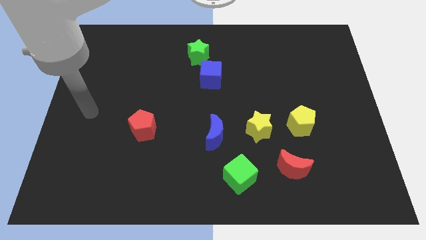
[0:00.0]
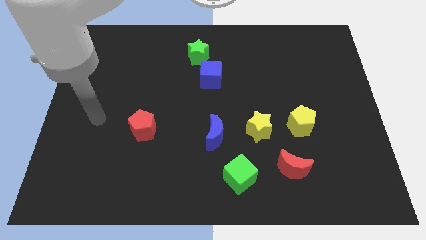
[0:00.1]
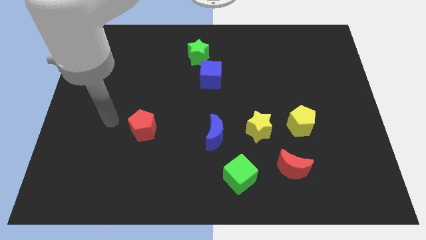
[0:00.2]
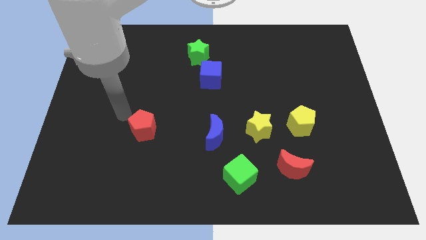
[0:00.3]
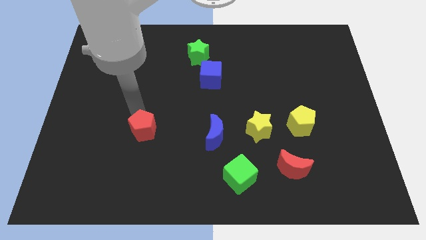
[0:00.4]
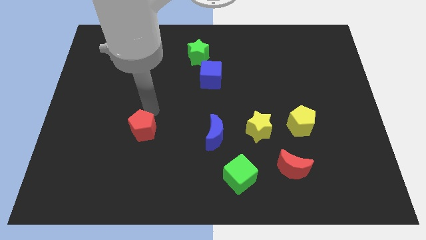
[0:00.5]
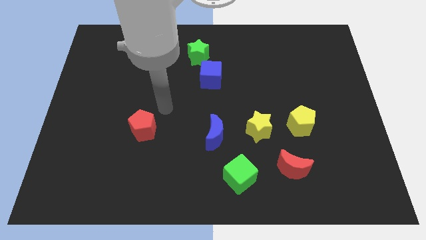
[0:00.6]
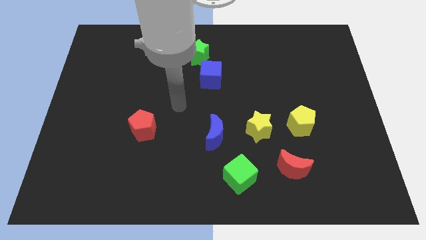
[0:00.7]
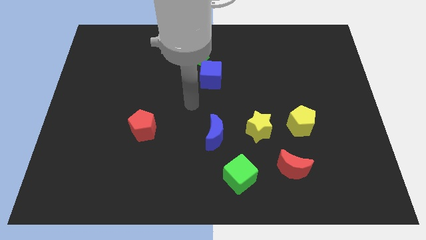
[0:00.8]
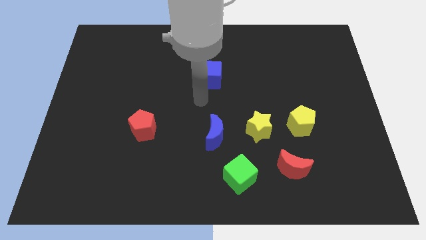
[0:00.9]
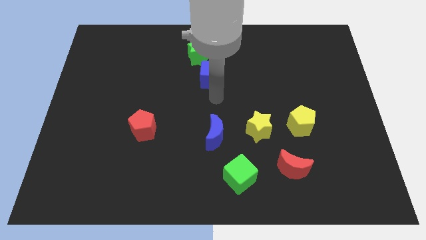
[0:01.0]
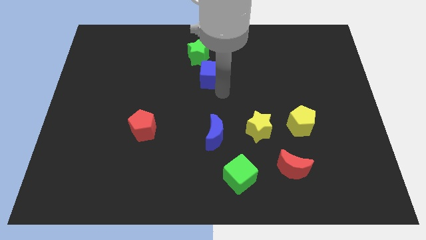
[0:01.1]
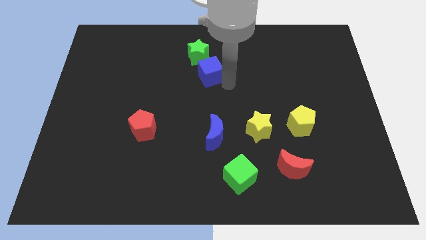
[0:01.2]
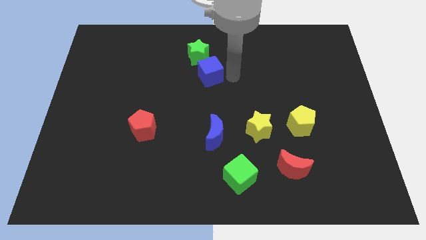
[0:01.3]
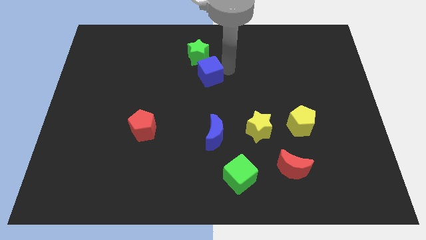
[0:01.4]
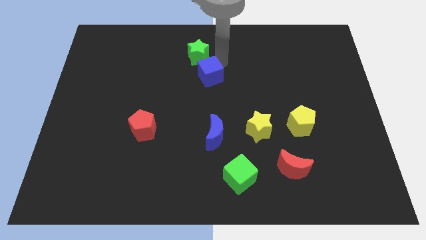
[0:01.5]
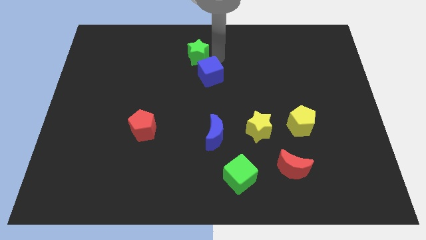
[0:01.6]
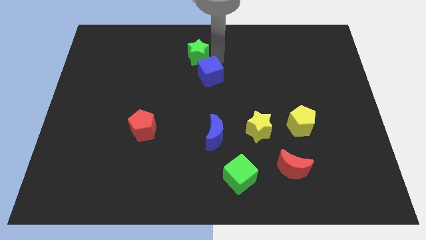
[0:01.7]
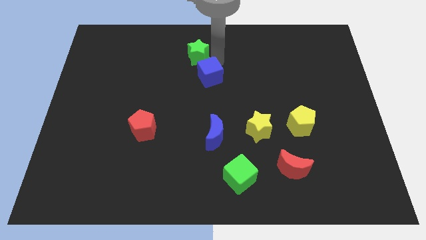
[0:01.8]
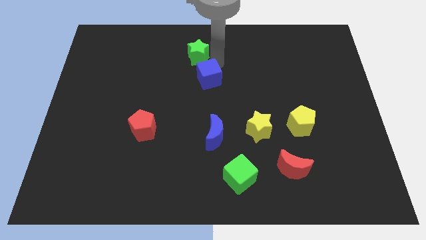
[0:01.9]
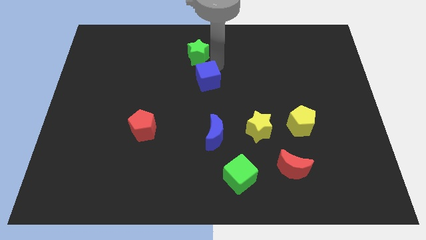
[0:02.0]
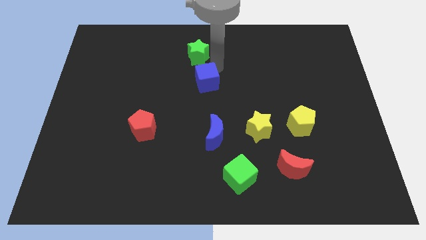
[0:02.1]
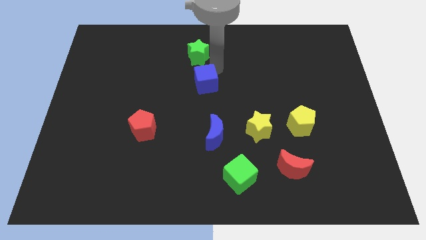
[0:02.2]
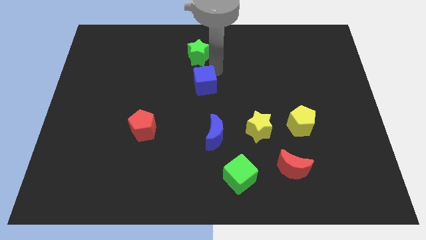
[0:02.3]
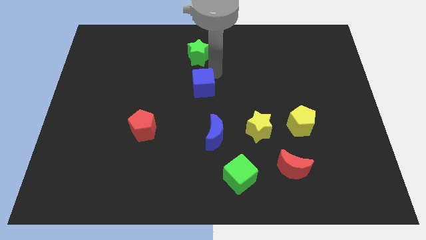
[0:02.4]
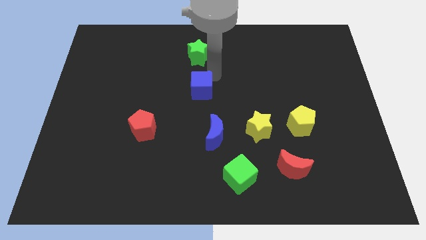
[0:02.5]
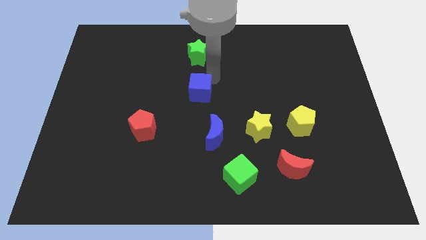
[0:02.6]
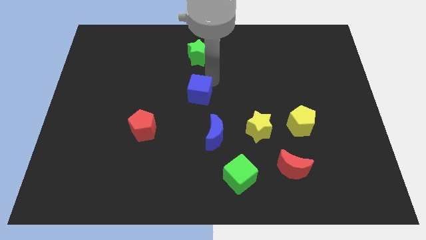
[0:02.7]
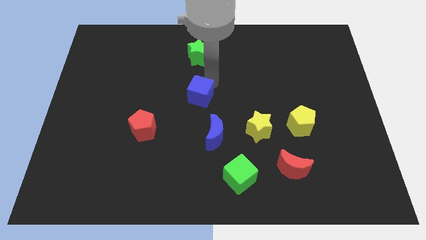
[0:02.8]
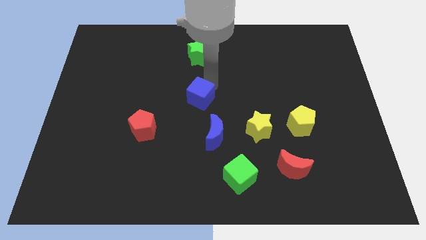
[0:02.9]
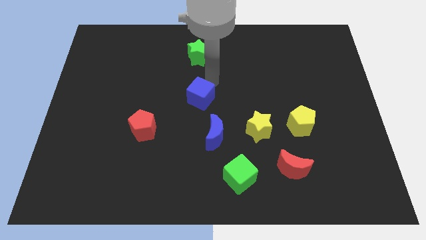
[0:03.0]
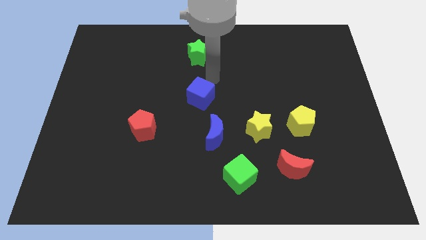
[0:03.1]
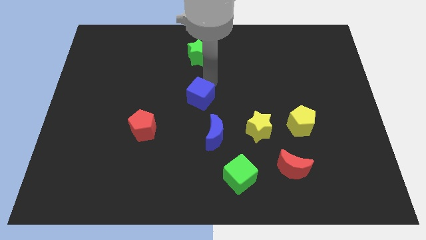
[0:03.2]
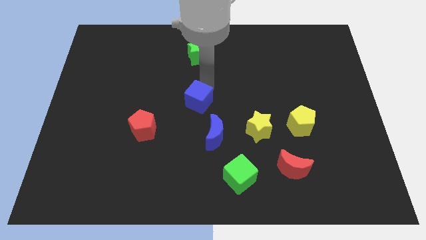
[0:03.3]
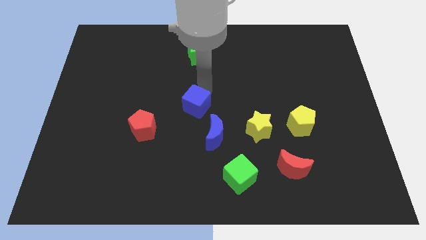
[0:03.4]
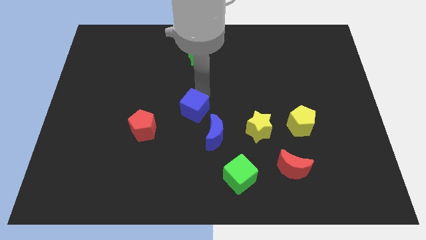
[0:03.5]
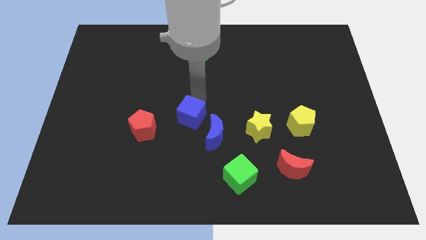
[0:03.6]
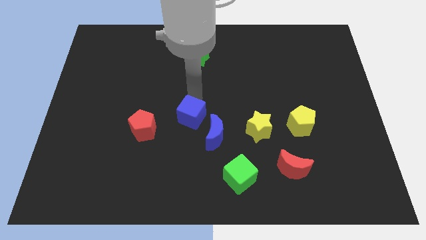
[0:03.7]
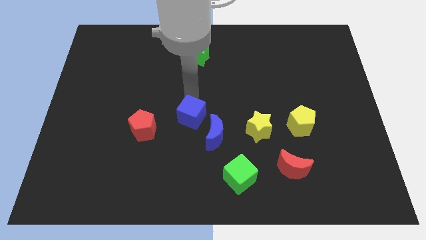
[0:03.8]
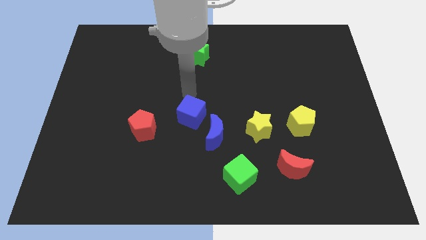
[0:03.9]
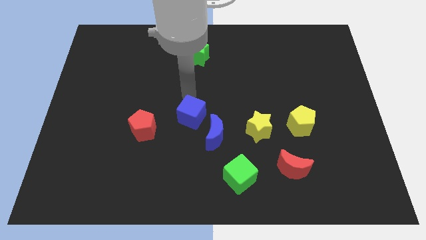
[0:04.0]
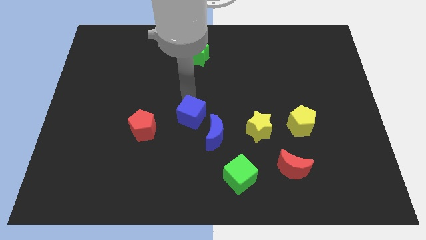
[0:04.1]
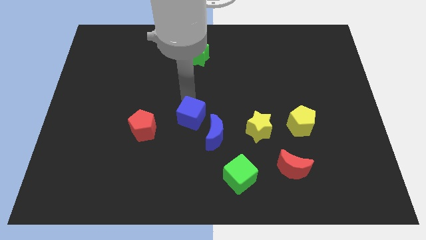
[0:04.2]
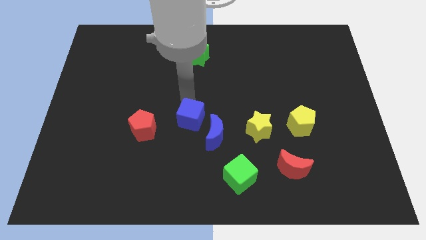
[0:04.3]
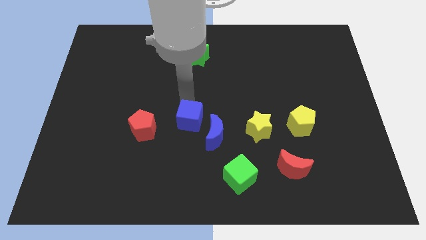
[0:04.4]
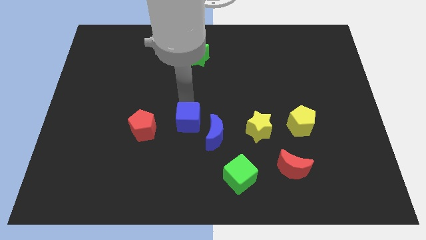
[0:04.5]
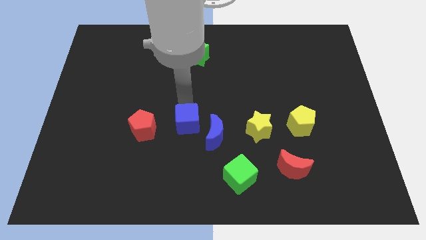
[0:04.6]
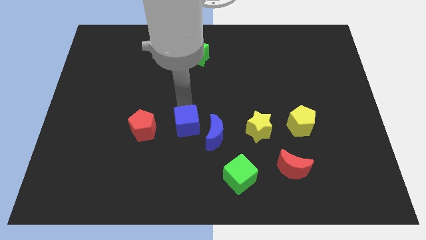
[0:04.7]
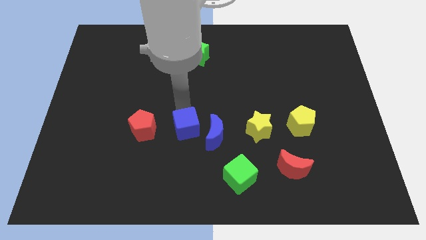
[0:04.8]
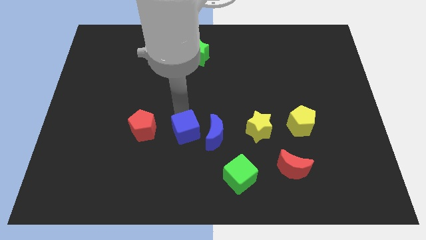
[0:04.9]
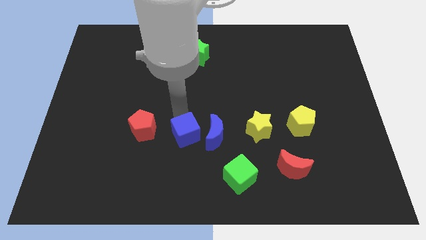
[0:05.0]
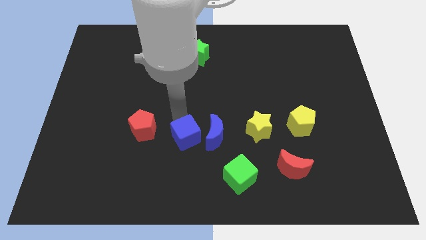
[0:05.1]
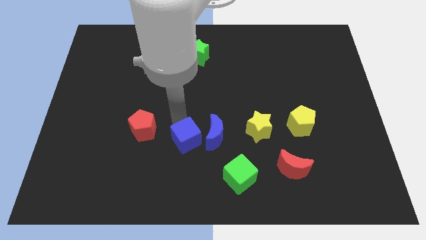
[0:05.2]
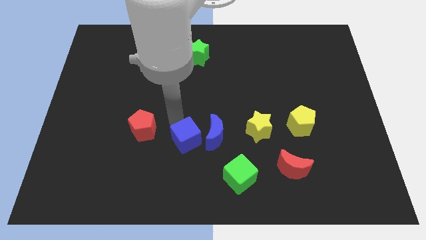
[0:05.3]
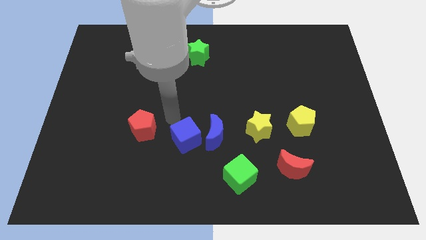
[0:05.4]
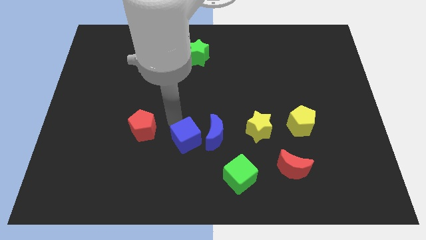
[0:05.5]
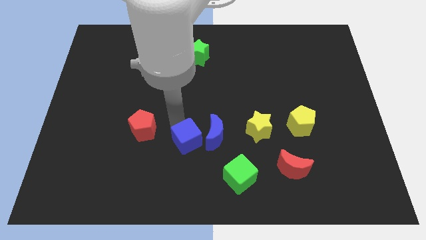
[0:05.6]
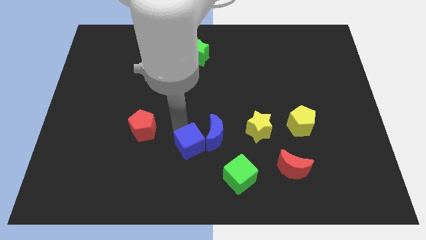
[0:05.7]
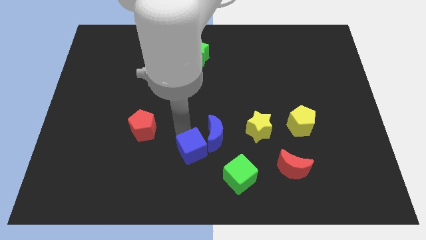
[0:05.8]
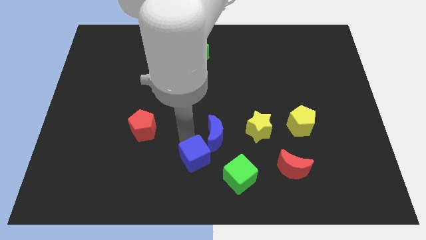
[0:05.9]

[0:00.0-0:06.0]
move the blue cube to the bottom

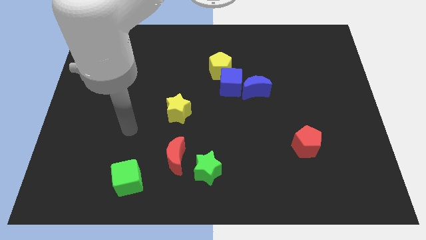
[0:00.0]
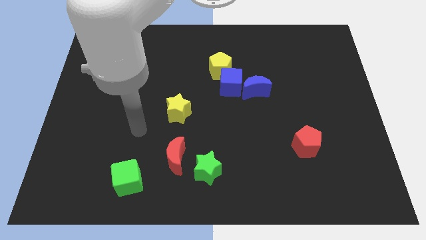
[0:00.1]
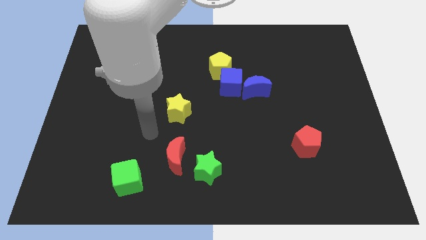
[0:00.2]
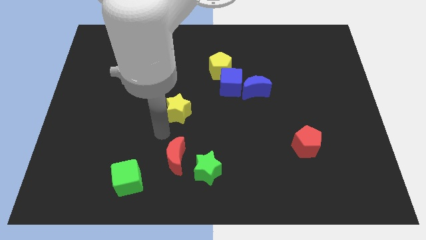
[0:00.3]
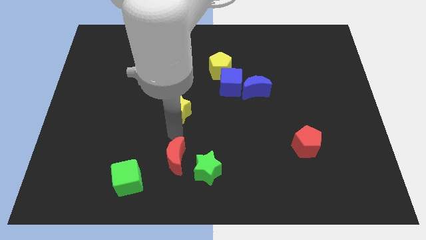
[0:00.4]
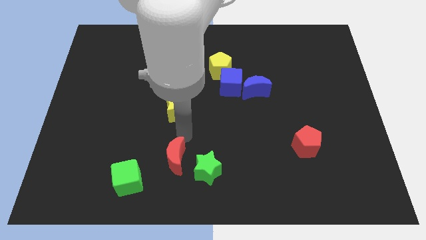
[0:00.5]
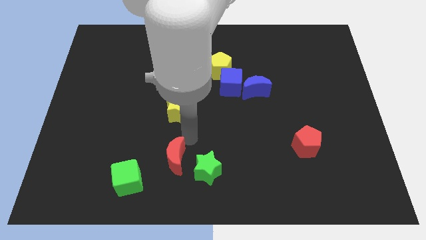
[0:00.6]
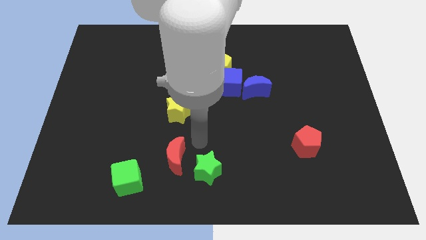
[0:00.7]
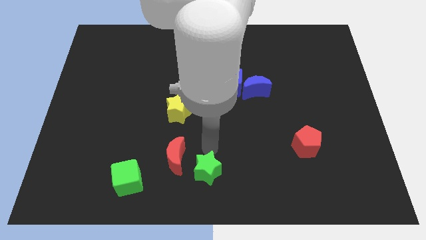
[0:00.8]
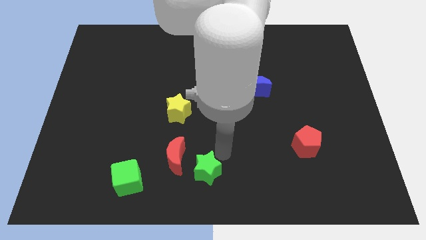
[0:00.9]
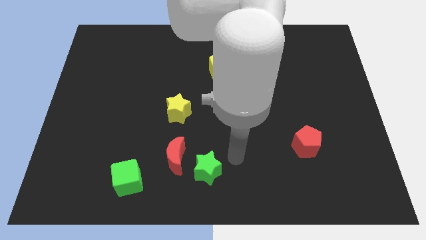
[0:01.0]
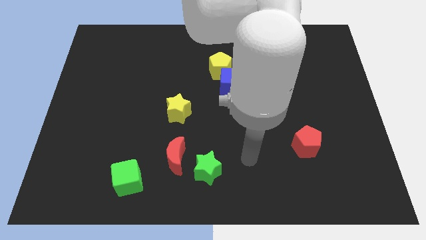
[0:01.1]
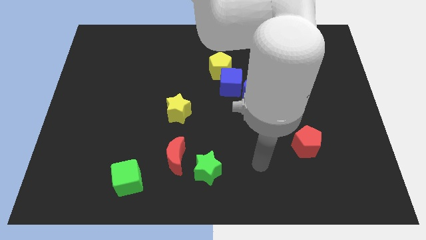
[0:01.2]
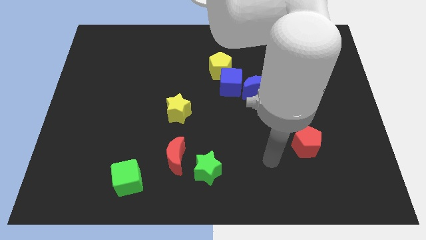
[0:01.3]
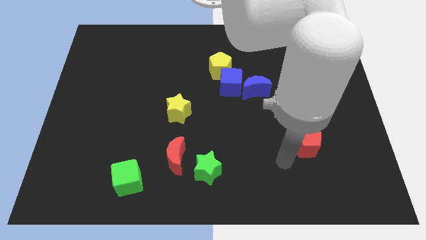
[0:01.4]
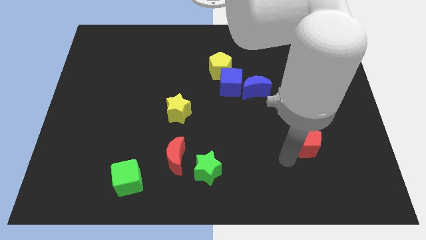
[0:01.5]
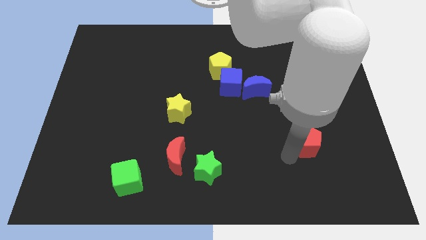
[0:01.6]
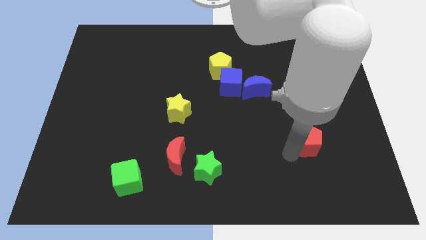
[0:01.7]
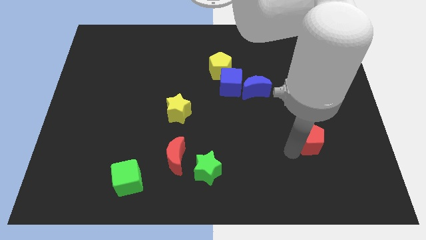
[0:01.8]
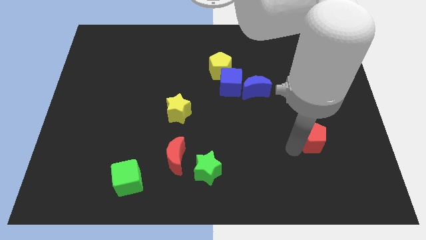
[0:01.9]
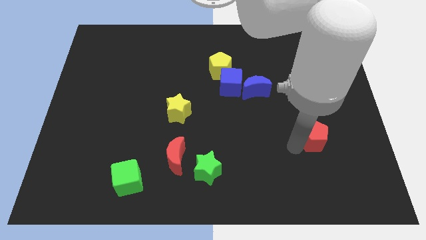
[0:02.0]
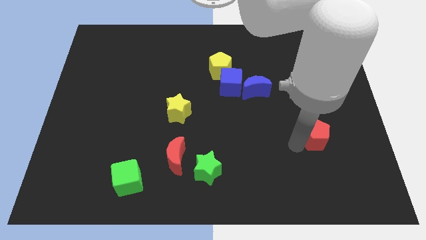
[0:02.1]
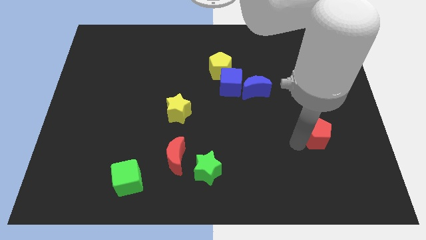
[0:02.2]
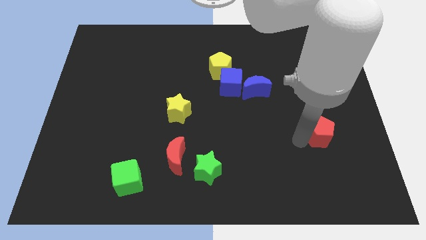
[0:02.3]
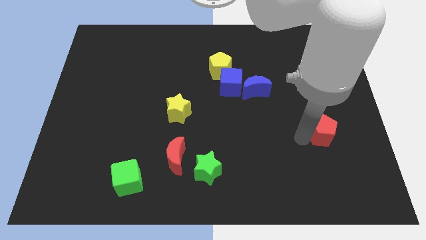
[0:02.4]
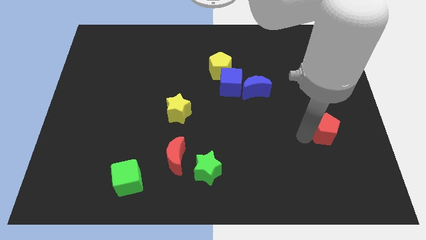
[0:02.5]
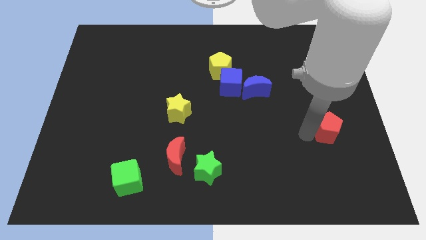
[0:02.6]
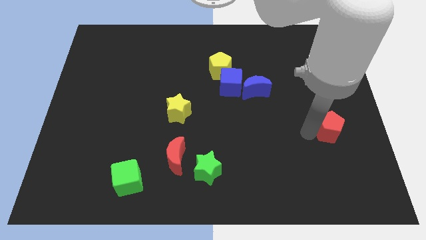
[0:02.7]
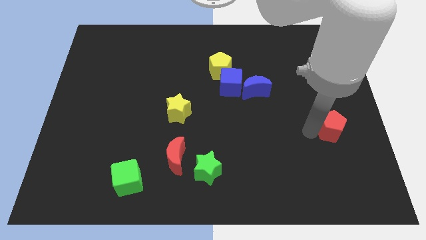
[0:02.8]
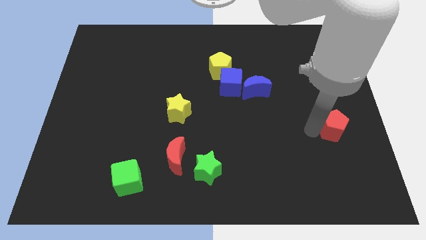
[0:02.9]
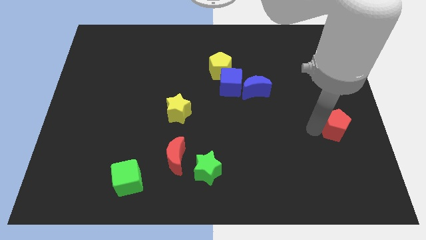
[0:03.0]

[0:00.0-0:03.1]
move the red pentagon to the right side
